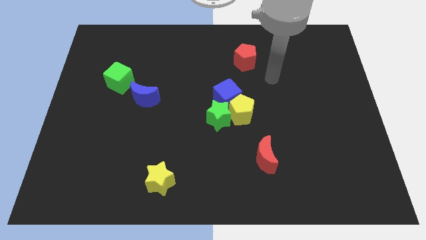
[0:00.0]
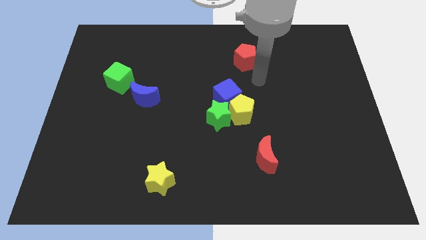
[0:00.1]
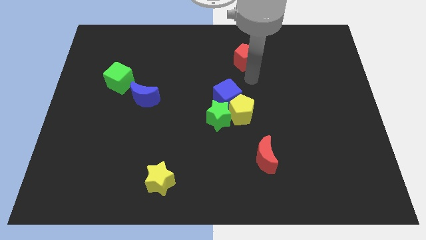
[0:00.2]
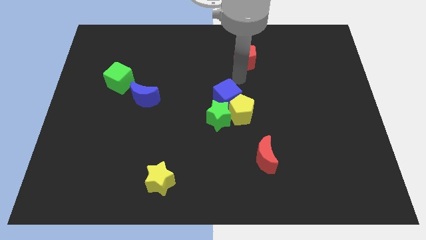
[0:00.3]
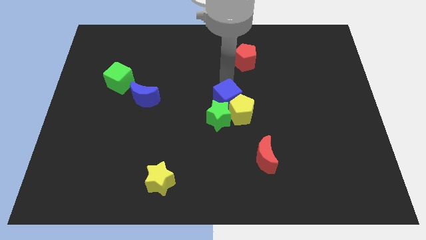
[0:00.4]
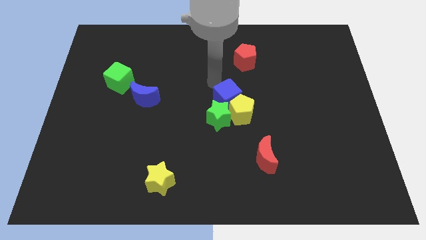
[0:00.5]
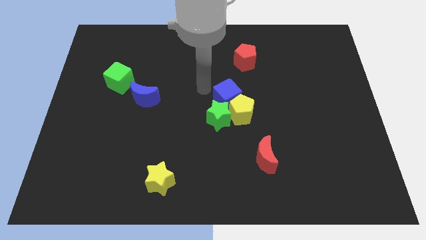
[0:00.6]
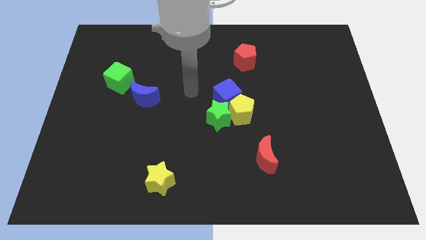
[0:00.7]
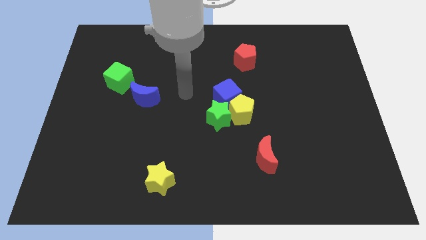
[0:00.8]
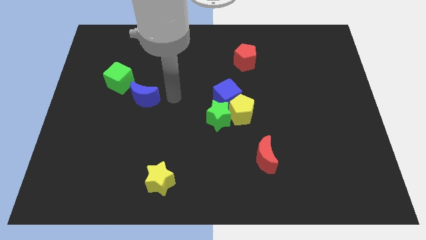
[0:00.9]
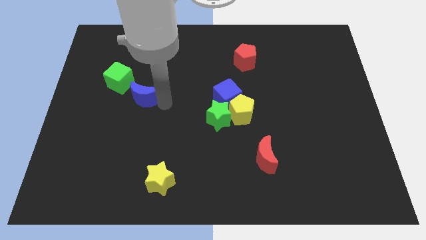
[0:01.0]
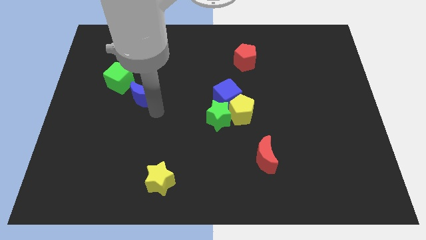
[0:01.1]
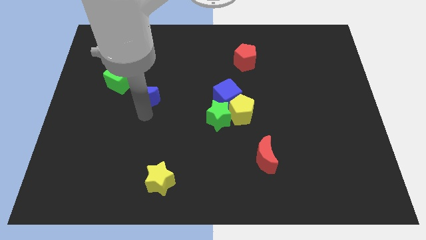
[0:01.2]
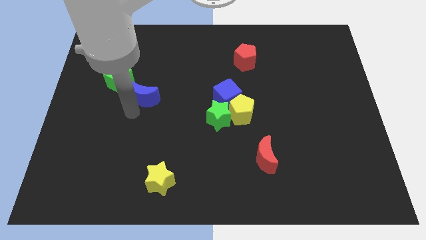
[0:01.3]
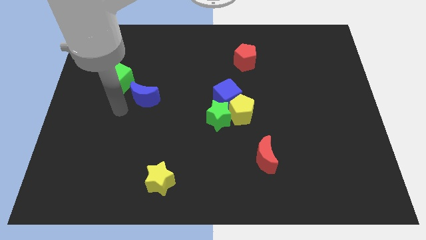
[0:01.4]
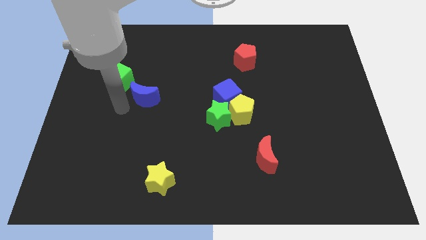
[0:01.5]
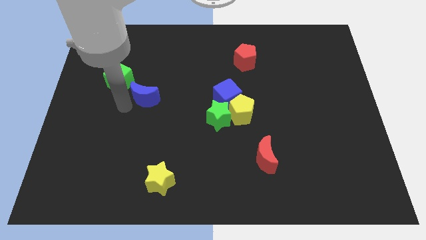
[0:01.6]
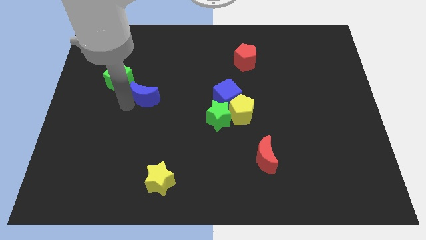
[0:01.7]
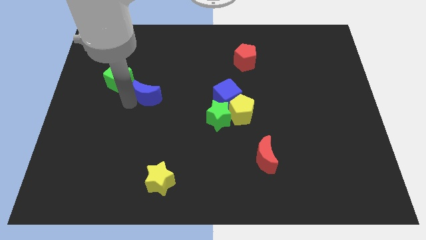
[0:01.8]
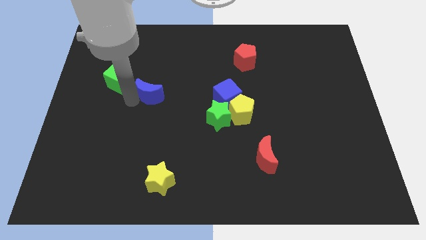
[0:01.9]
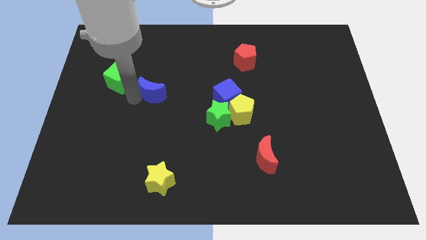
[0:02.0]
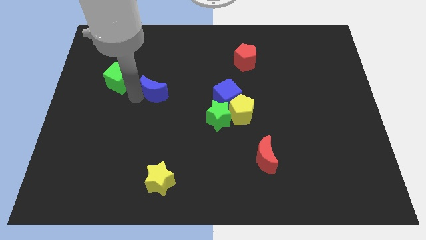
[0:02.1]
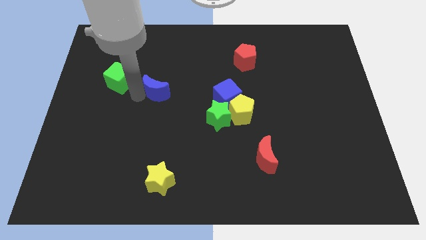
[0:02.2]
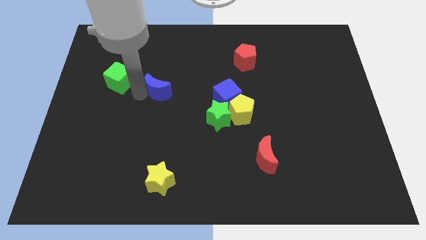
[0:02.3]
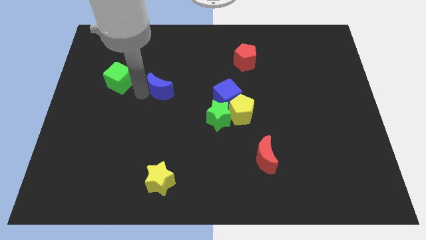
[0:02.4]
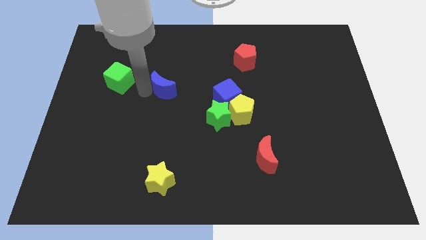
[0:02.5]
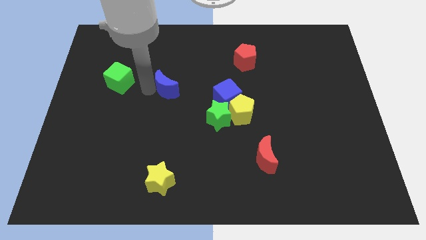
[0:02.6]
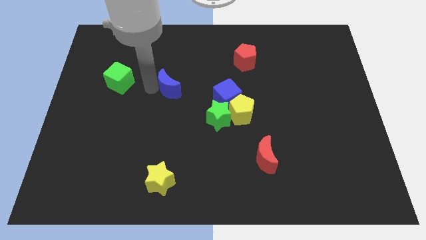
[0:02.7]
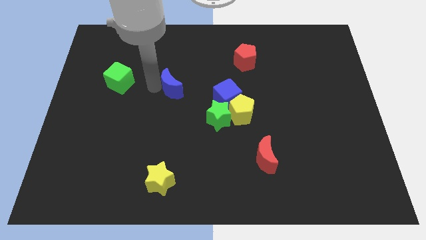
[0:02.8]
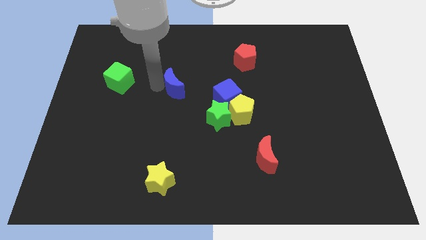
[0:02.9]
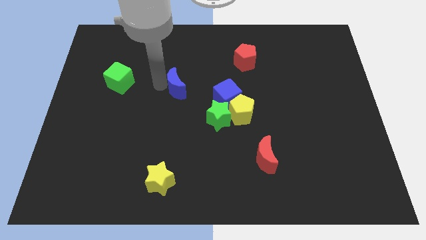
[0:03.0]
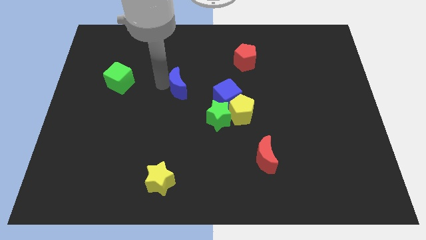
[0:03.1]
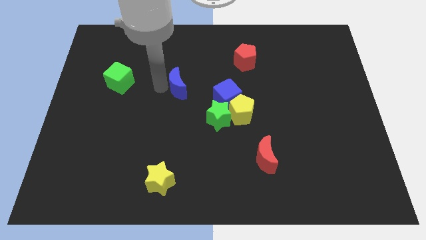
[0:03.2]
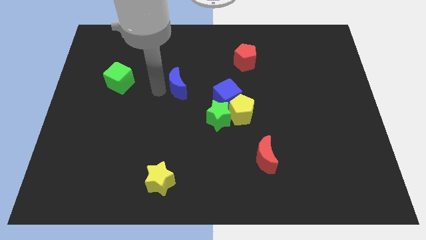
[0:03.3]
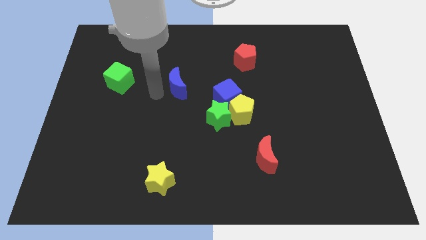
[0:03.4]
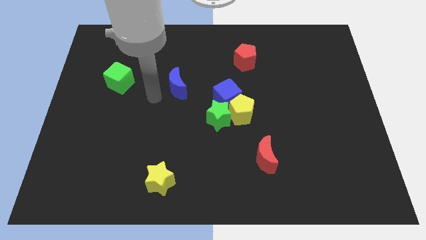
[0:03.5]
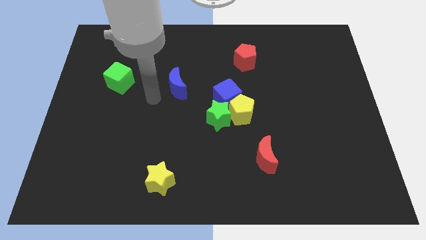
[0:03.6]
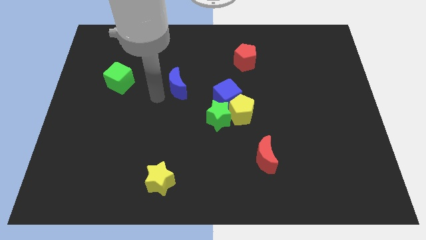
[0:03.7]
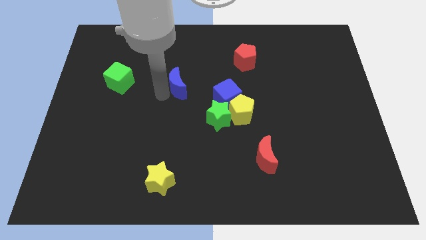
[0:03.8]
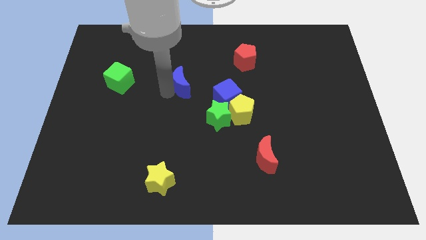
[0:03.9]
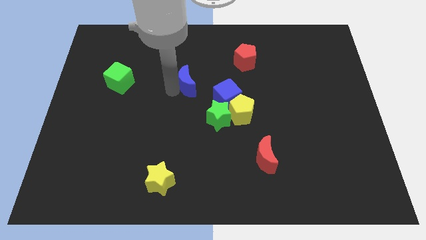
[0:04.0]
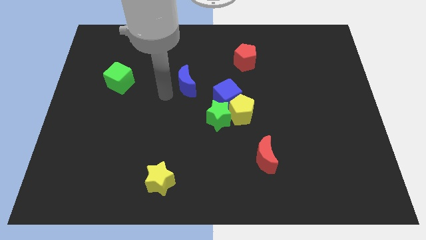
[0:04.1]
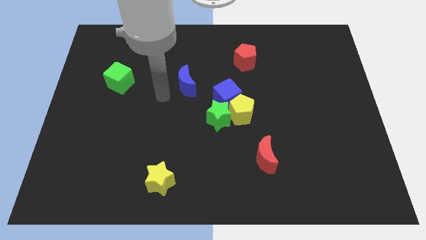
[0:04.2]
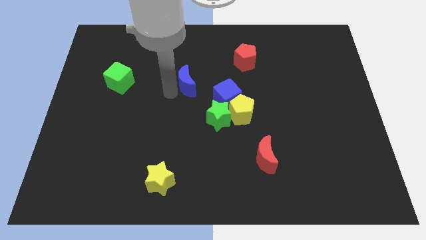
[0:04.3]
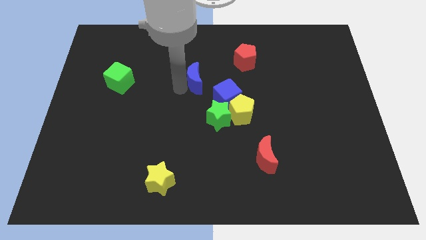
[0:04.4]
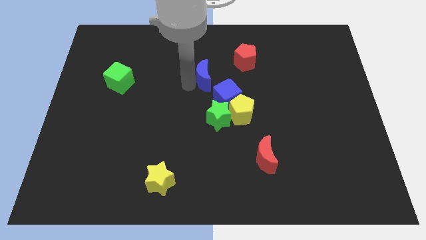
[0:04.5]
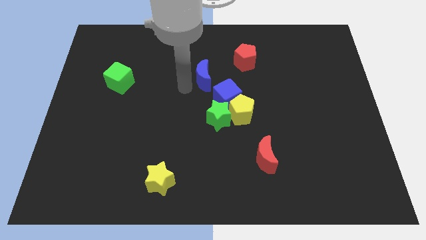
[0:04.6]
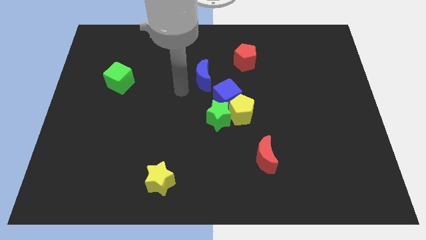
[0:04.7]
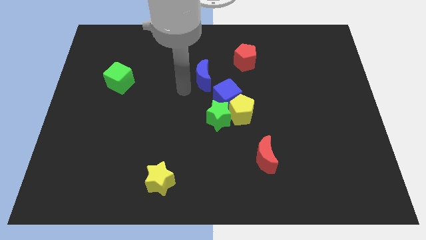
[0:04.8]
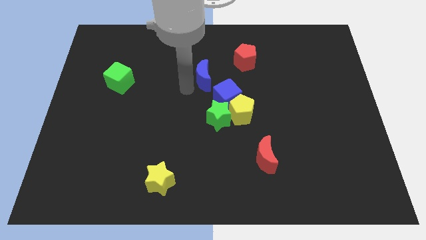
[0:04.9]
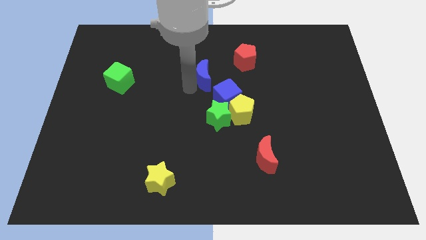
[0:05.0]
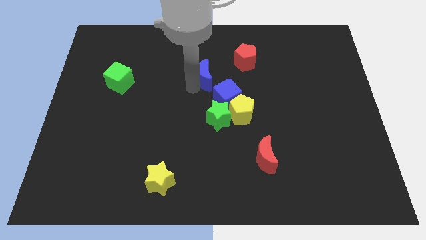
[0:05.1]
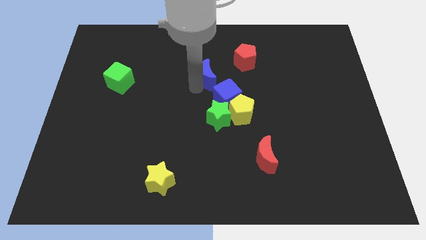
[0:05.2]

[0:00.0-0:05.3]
put the blue moon above the blue cube

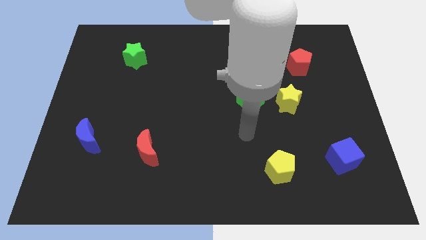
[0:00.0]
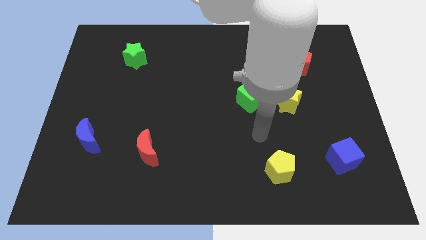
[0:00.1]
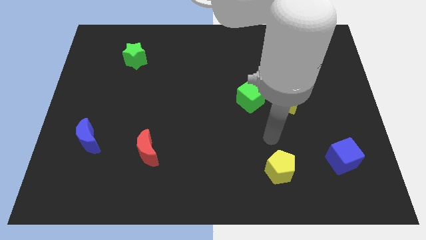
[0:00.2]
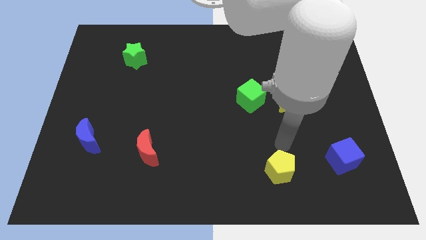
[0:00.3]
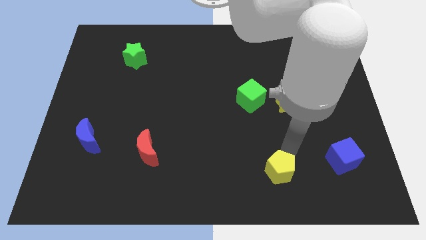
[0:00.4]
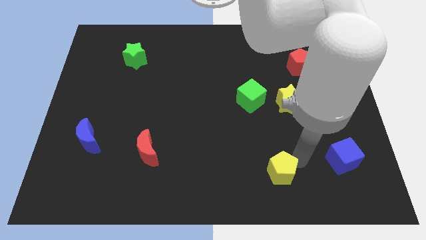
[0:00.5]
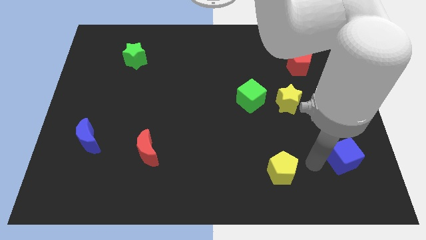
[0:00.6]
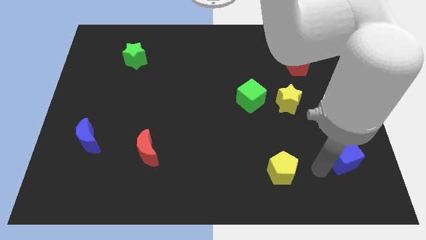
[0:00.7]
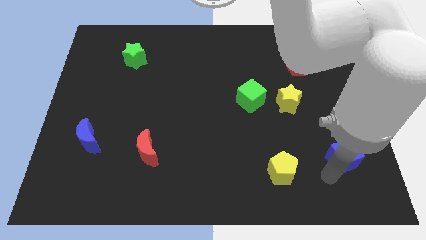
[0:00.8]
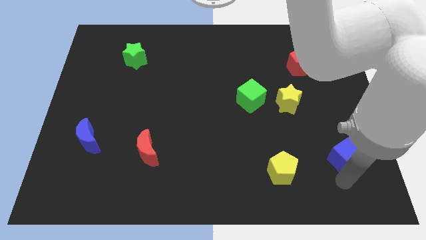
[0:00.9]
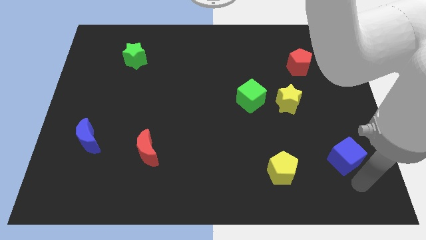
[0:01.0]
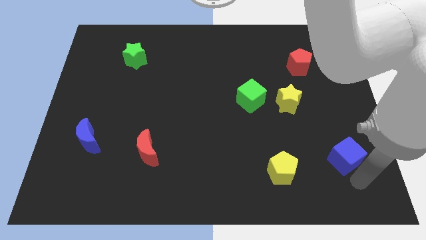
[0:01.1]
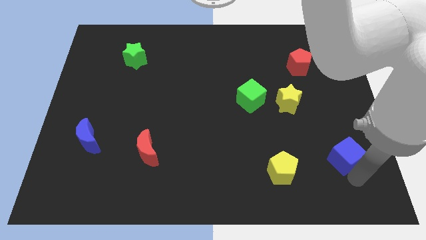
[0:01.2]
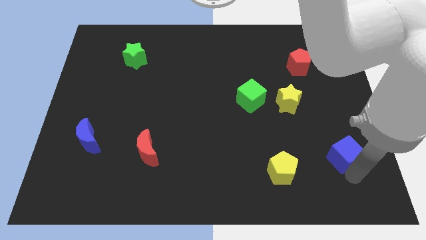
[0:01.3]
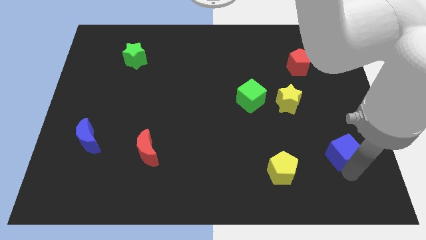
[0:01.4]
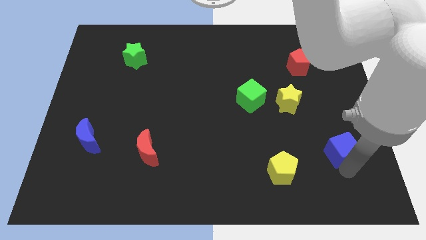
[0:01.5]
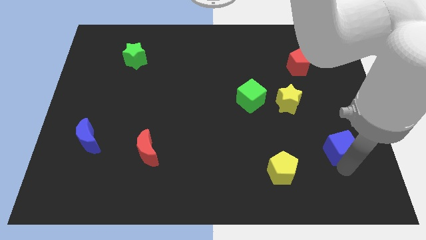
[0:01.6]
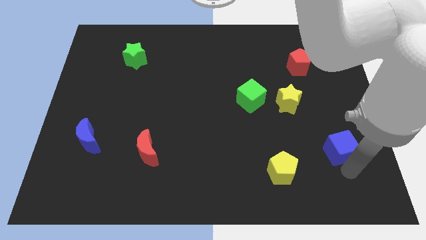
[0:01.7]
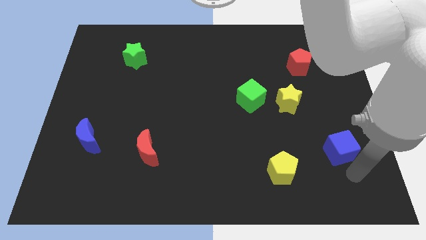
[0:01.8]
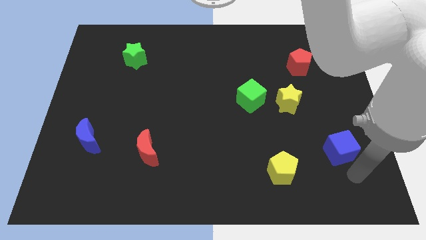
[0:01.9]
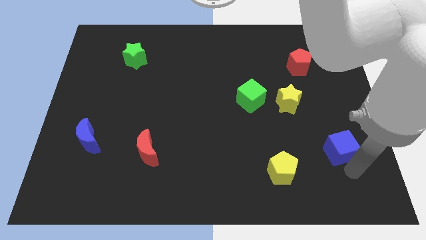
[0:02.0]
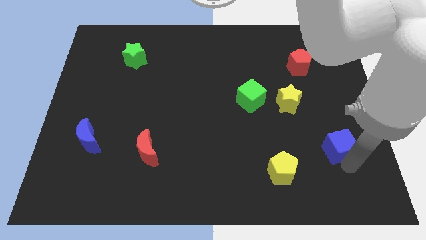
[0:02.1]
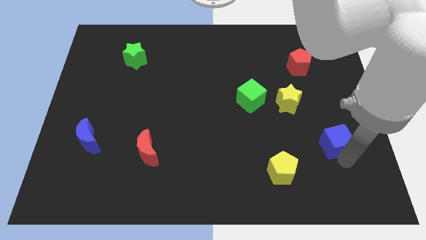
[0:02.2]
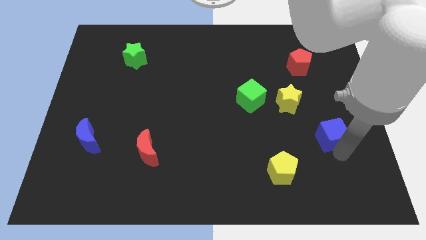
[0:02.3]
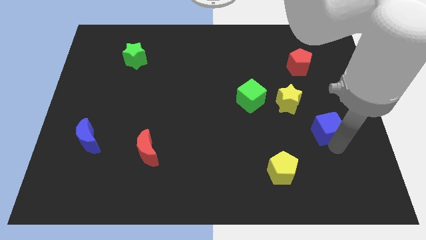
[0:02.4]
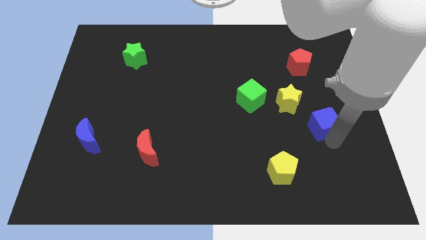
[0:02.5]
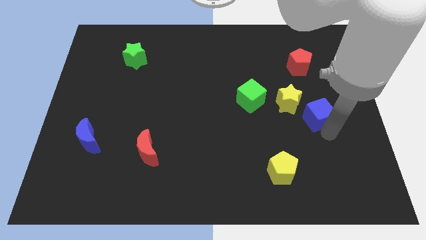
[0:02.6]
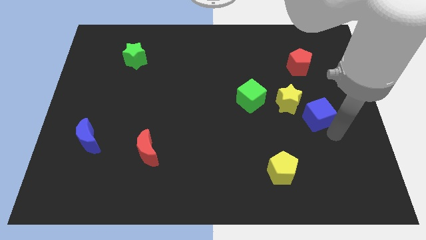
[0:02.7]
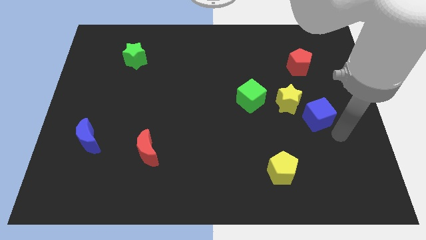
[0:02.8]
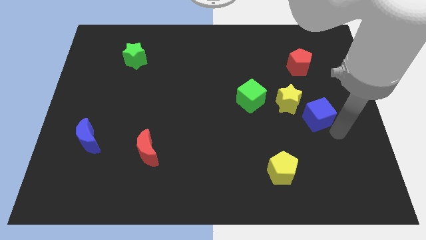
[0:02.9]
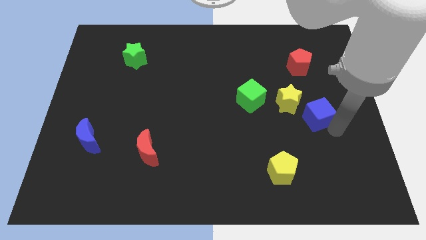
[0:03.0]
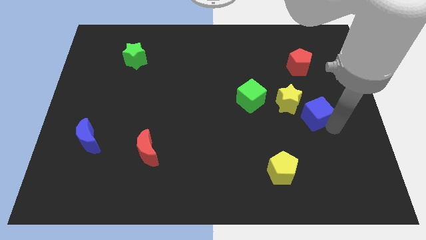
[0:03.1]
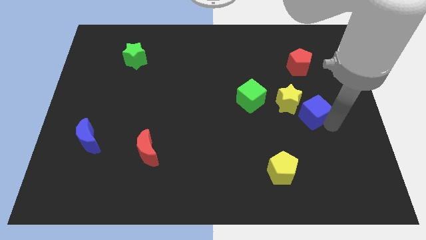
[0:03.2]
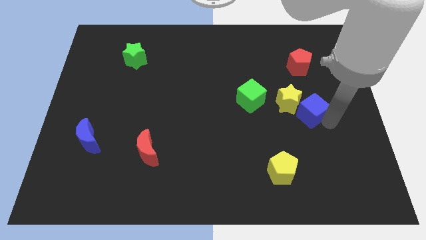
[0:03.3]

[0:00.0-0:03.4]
move the blue cube right of the green cube
